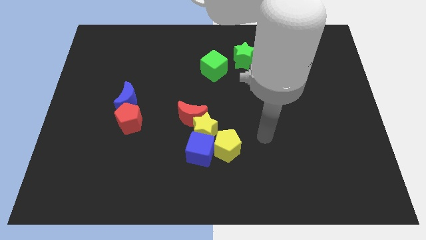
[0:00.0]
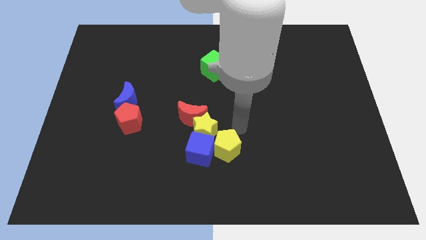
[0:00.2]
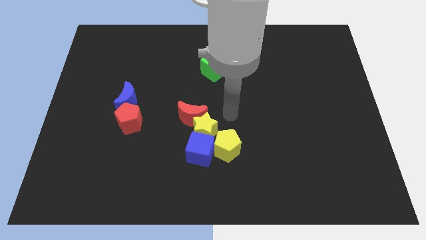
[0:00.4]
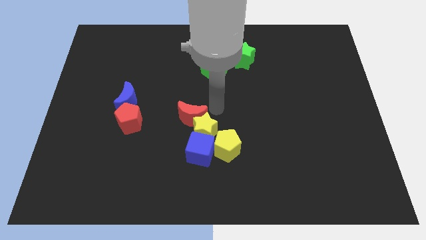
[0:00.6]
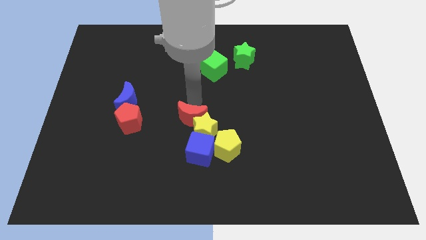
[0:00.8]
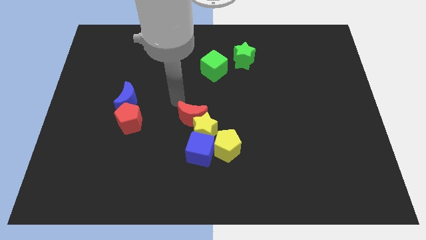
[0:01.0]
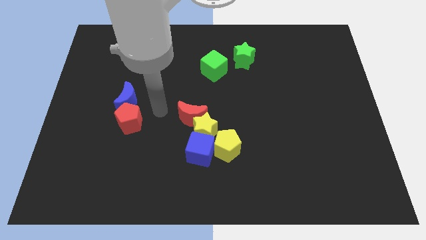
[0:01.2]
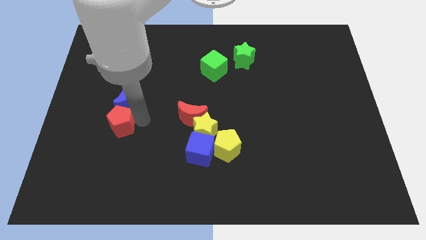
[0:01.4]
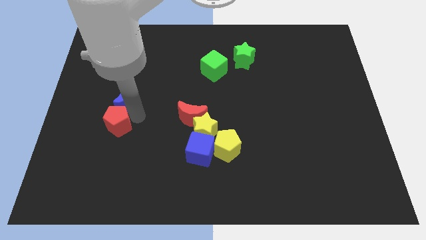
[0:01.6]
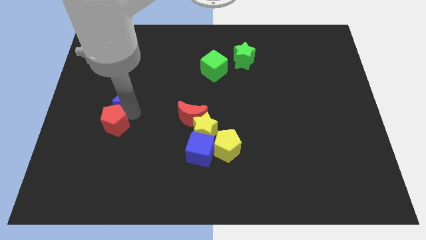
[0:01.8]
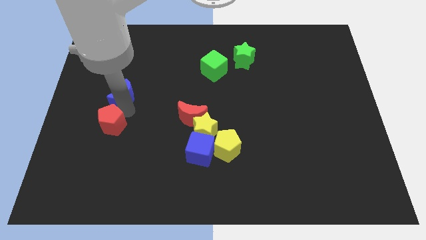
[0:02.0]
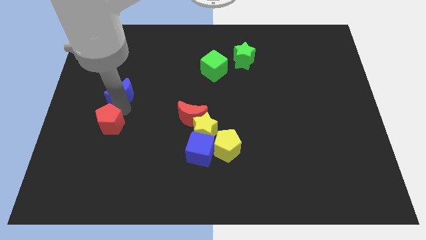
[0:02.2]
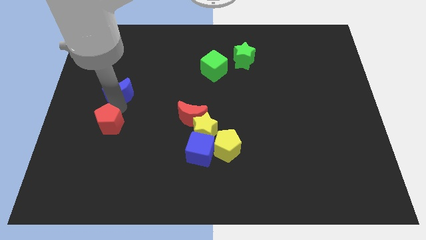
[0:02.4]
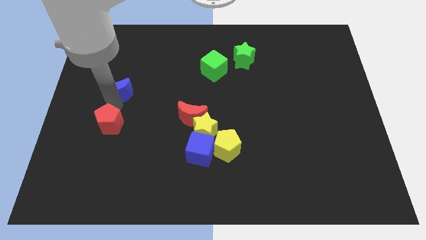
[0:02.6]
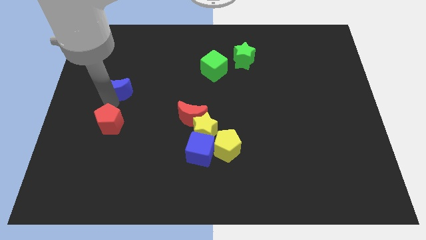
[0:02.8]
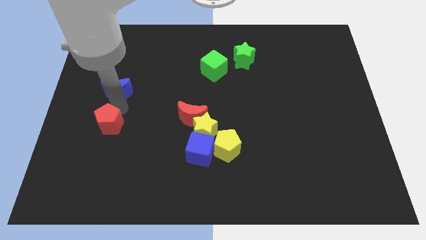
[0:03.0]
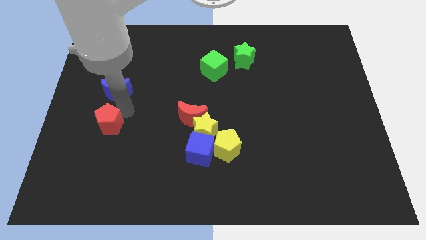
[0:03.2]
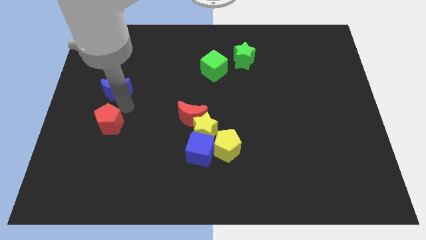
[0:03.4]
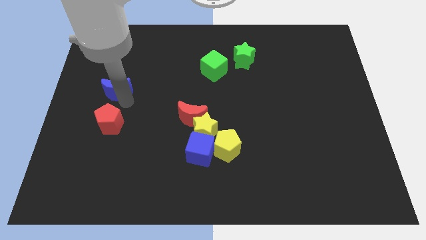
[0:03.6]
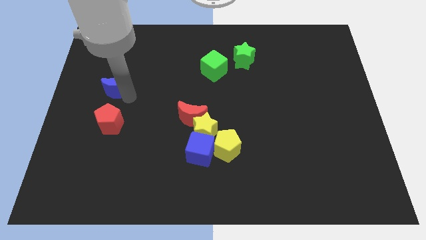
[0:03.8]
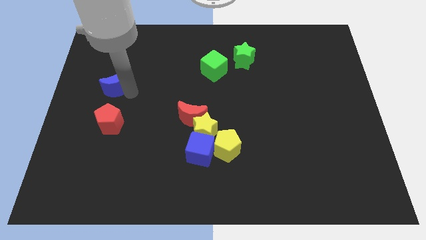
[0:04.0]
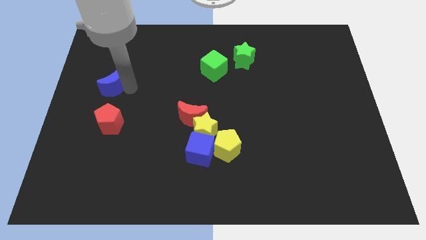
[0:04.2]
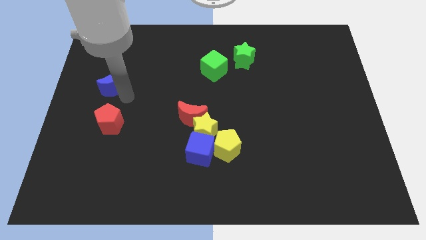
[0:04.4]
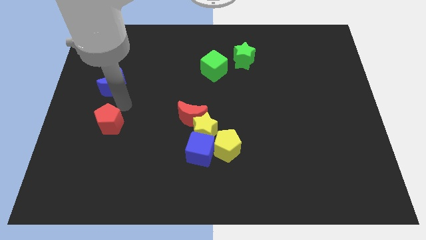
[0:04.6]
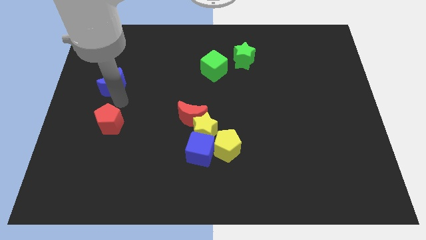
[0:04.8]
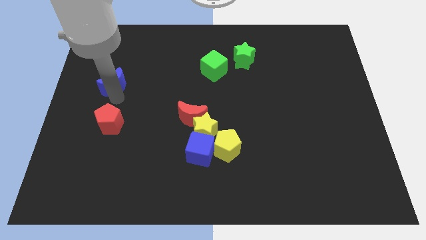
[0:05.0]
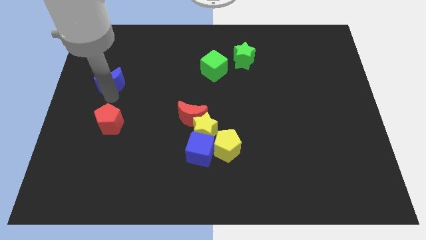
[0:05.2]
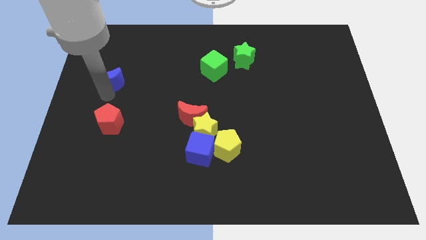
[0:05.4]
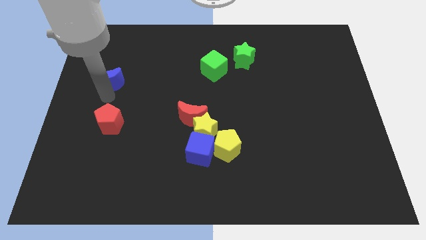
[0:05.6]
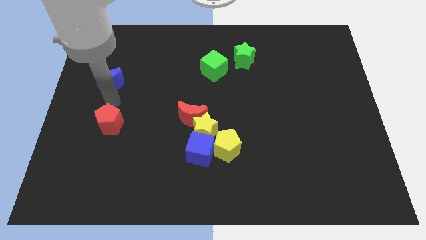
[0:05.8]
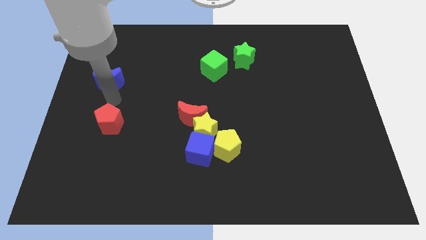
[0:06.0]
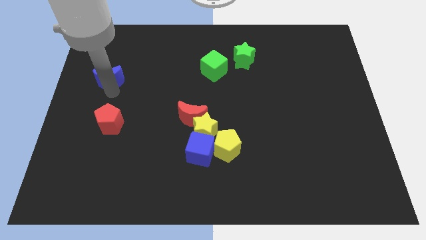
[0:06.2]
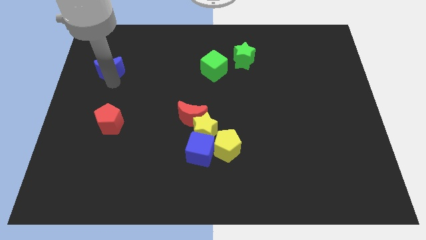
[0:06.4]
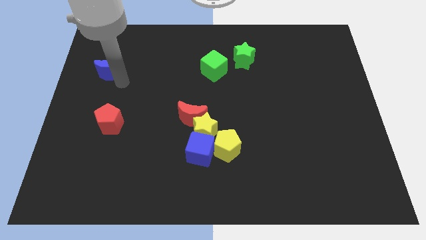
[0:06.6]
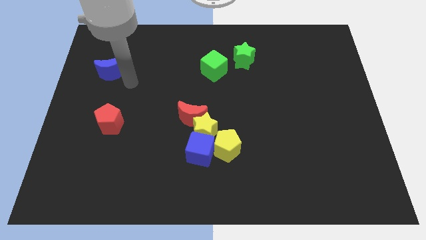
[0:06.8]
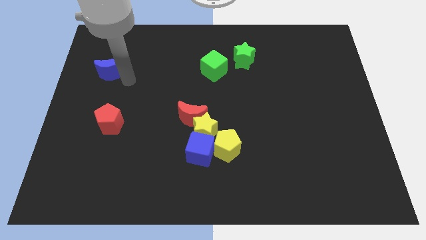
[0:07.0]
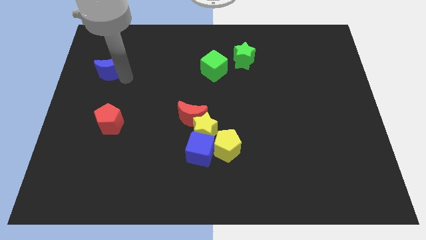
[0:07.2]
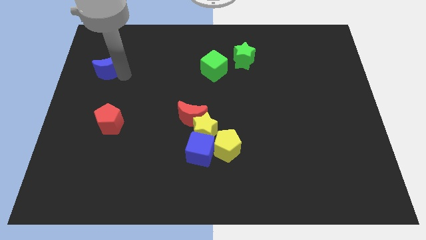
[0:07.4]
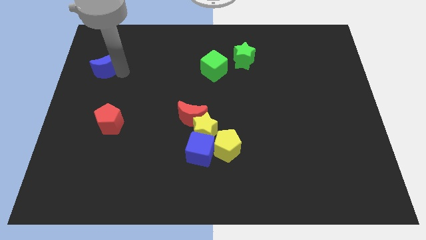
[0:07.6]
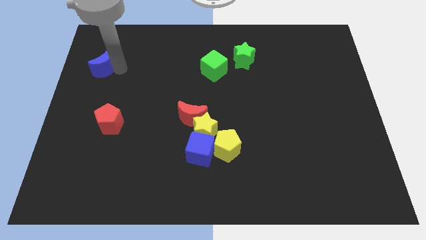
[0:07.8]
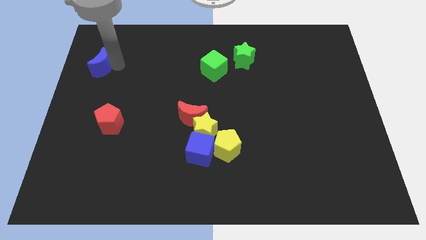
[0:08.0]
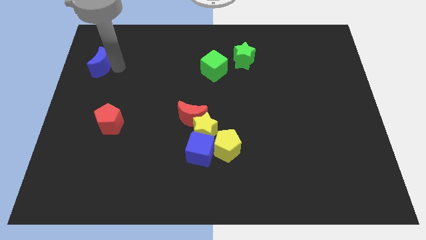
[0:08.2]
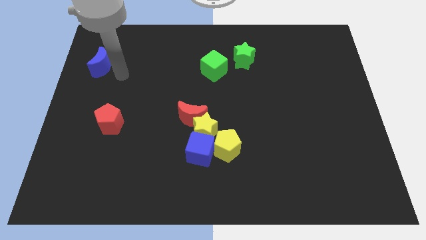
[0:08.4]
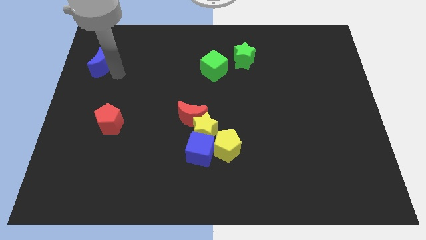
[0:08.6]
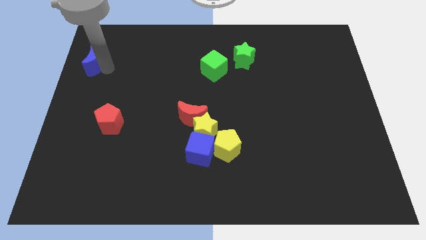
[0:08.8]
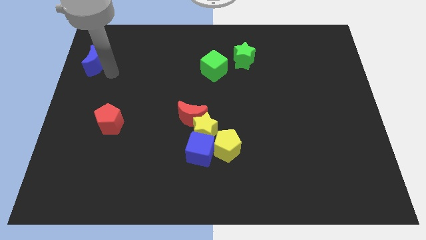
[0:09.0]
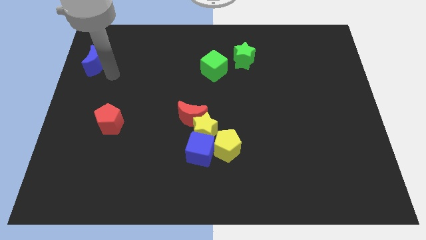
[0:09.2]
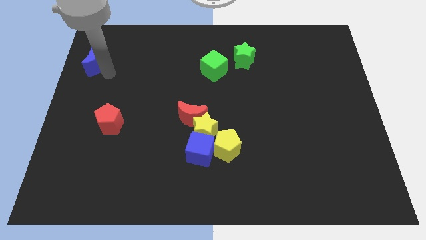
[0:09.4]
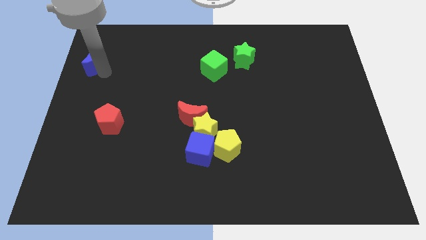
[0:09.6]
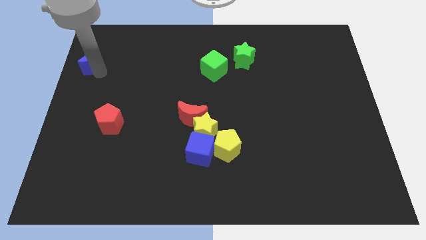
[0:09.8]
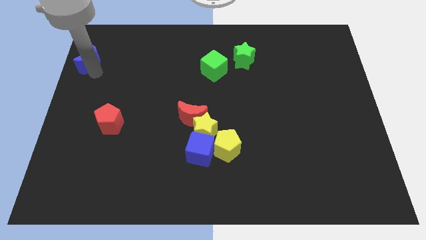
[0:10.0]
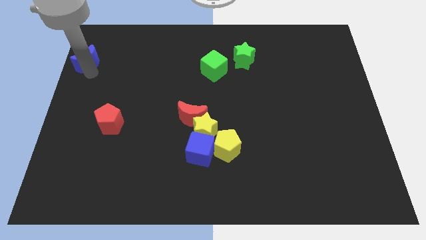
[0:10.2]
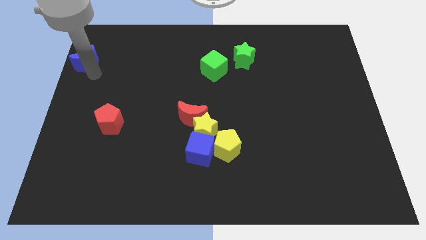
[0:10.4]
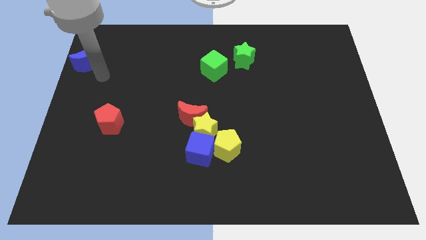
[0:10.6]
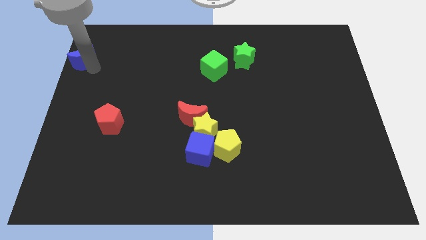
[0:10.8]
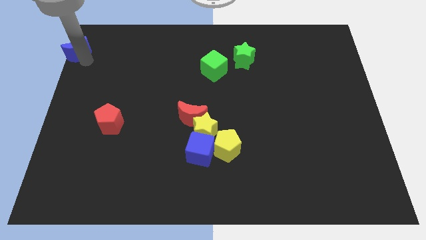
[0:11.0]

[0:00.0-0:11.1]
put the blue moon to the upper left corner
